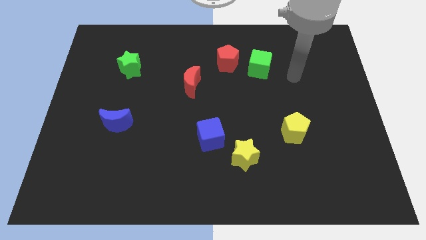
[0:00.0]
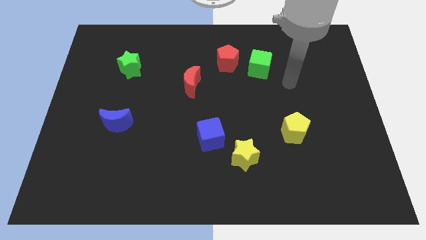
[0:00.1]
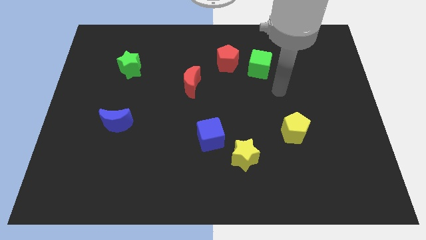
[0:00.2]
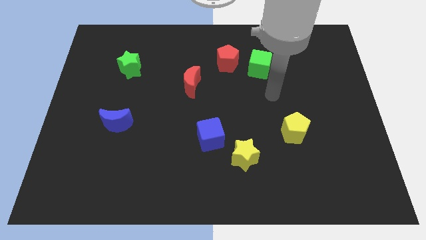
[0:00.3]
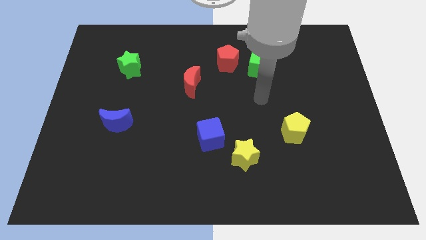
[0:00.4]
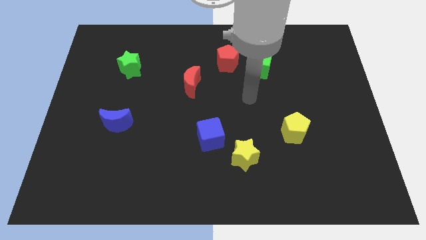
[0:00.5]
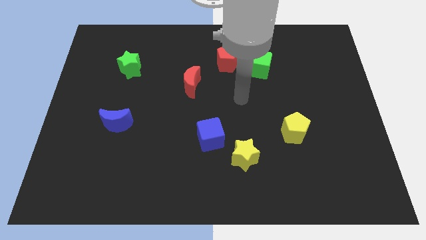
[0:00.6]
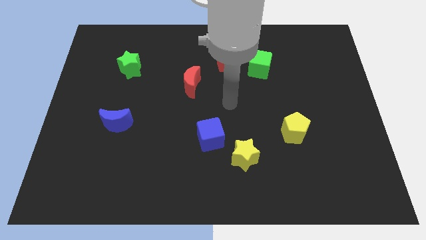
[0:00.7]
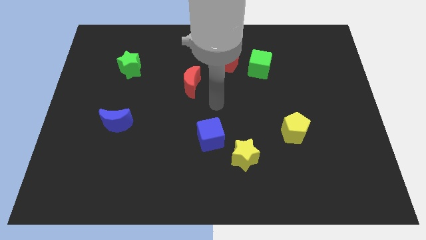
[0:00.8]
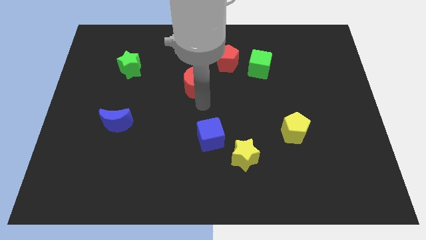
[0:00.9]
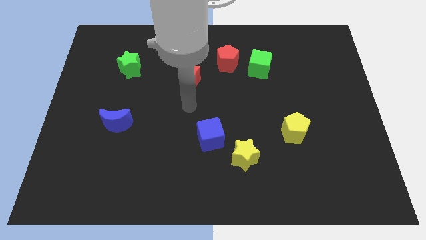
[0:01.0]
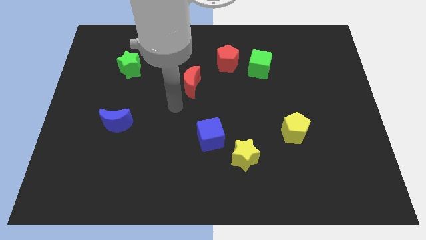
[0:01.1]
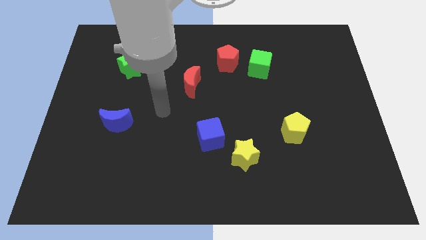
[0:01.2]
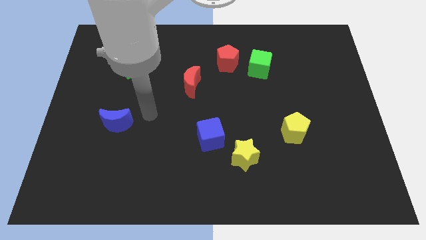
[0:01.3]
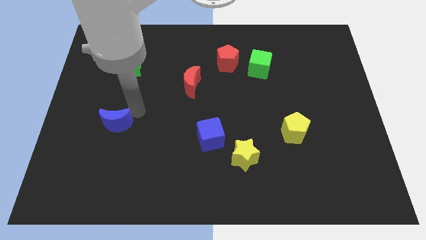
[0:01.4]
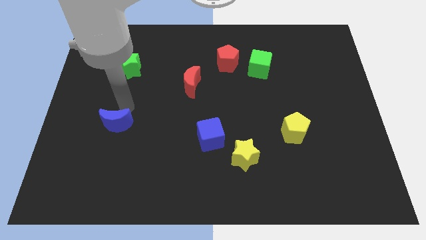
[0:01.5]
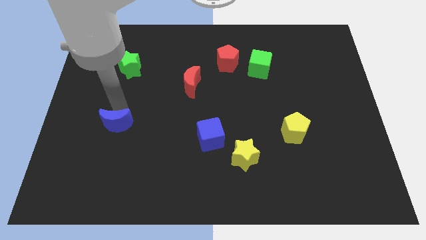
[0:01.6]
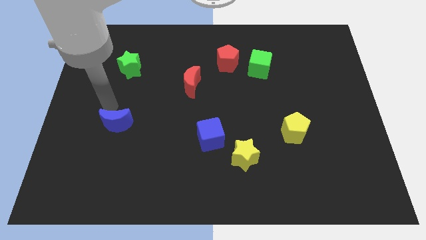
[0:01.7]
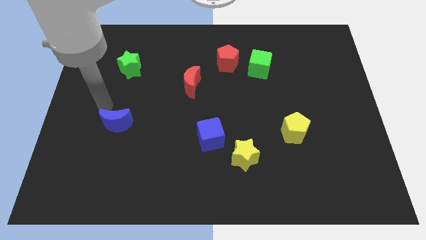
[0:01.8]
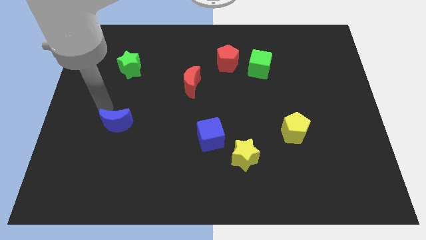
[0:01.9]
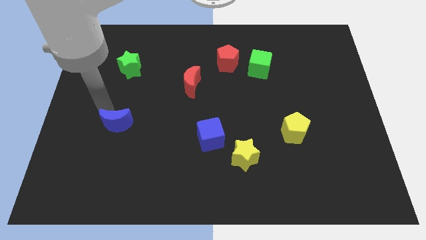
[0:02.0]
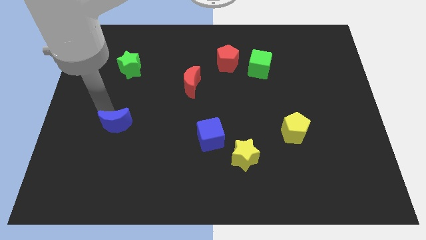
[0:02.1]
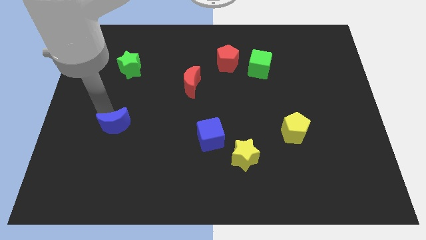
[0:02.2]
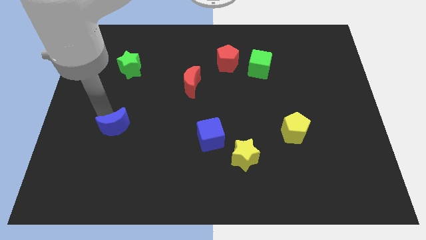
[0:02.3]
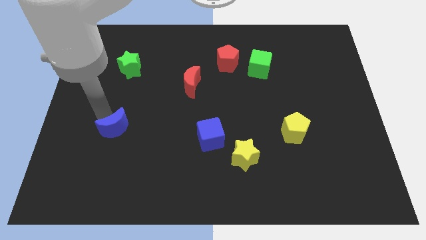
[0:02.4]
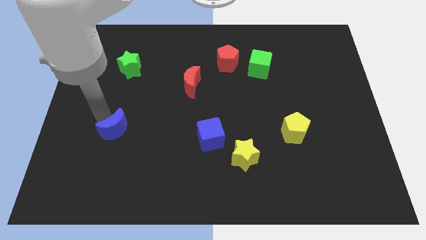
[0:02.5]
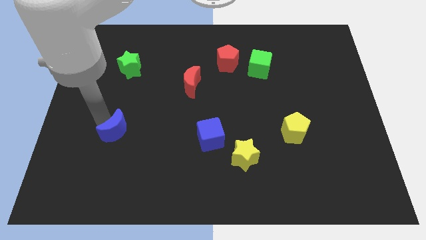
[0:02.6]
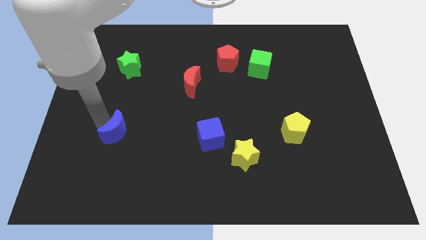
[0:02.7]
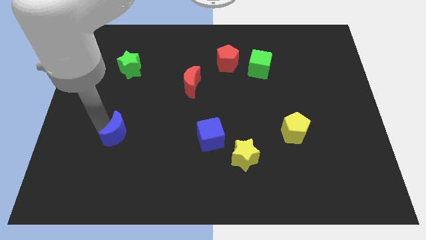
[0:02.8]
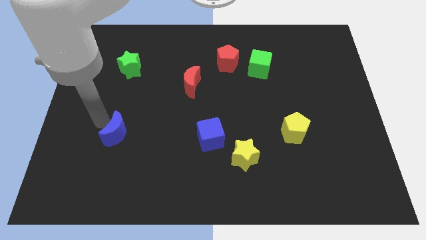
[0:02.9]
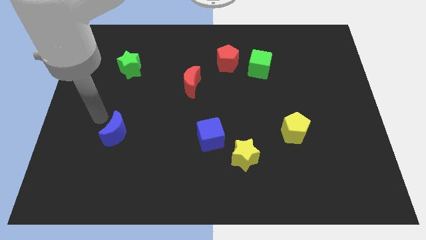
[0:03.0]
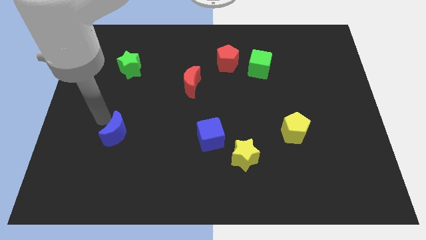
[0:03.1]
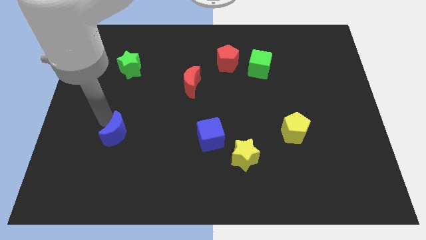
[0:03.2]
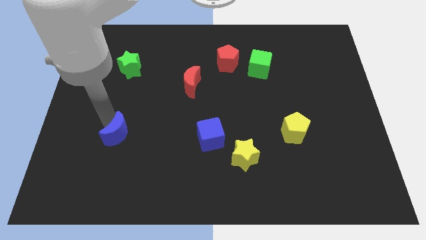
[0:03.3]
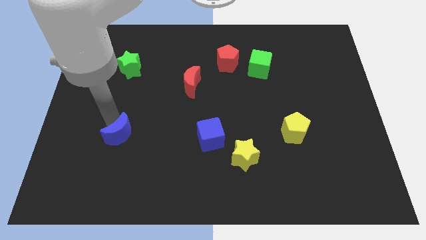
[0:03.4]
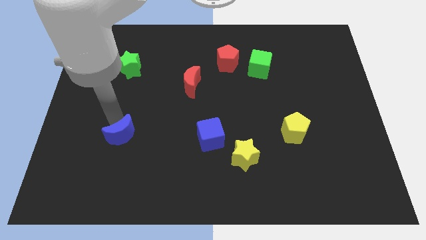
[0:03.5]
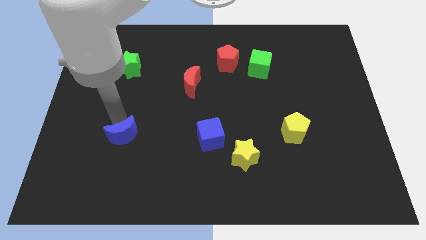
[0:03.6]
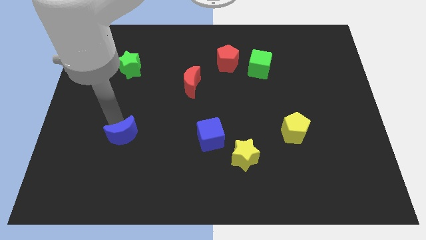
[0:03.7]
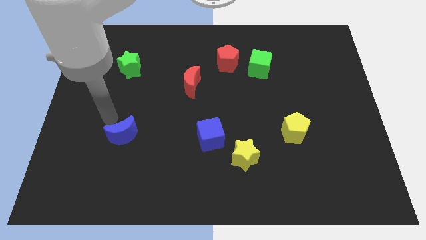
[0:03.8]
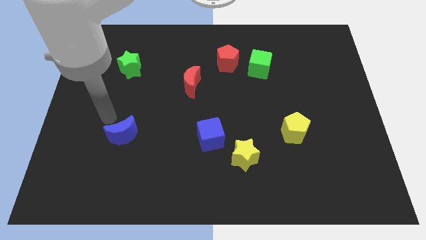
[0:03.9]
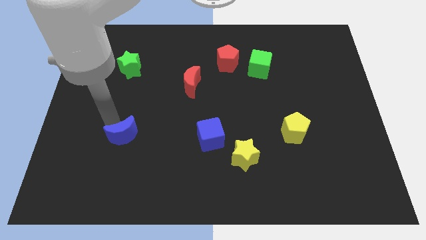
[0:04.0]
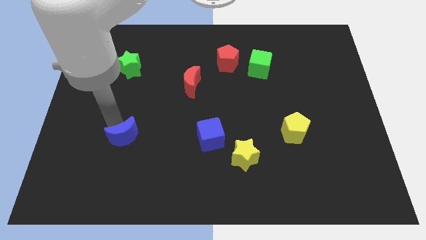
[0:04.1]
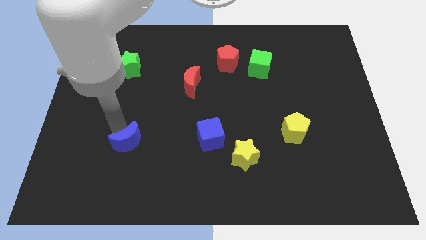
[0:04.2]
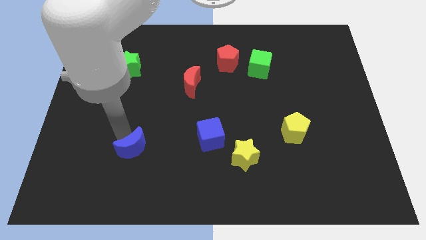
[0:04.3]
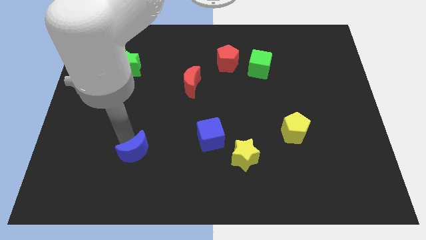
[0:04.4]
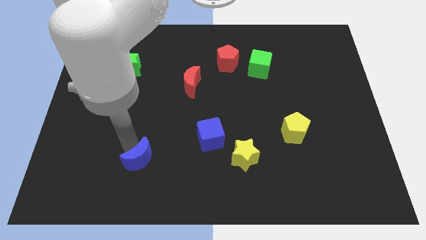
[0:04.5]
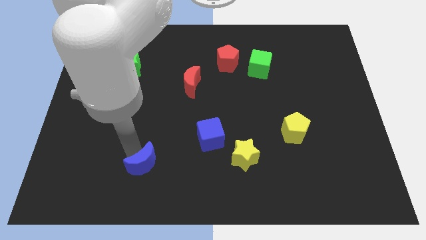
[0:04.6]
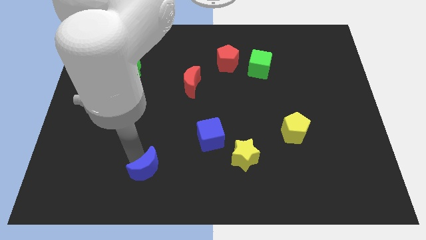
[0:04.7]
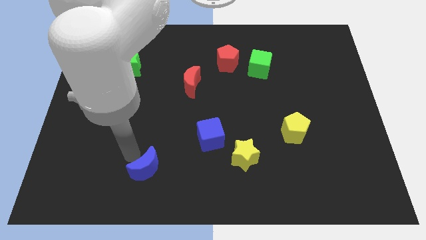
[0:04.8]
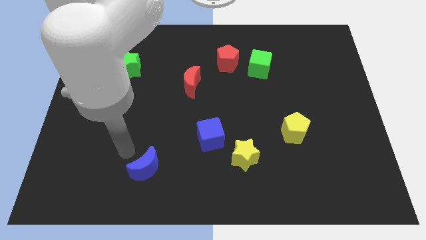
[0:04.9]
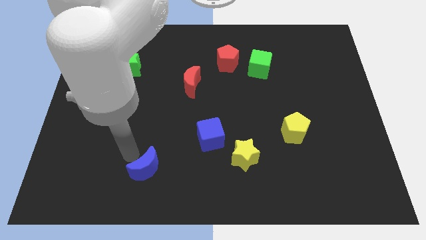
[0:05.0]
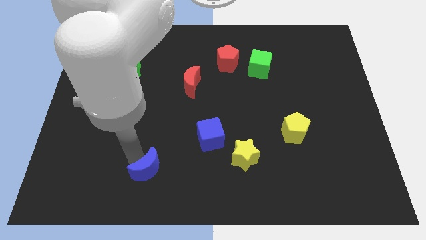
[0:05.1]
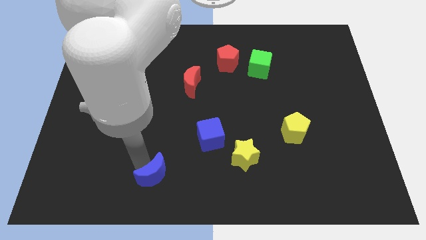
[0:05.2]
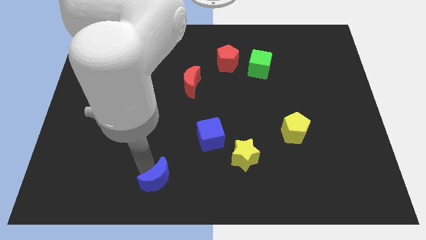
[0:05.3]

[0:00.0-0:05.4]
move the blue moon to the bottom side

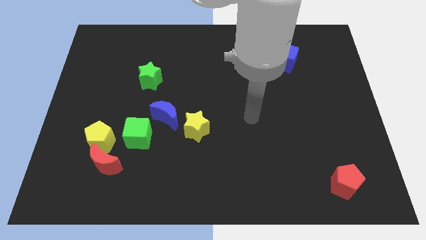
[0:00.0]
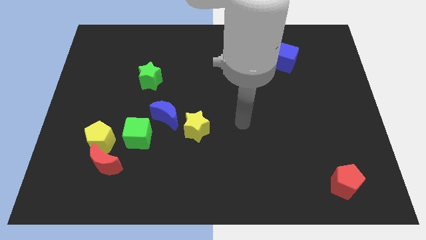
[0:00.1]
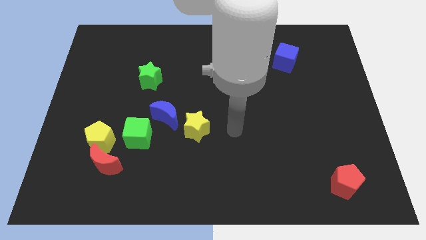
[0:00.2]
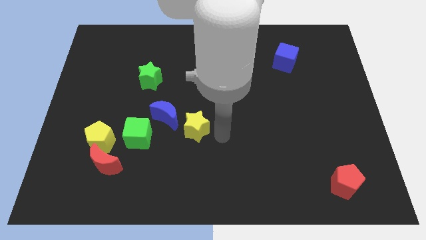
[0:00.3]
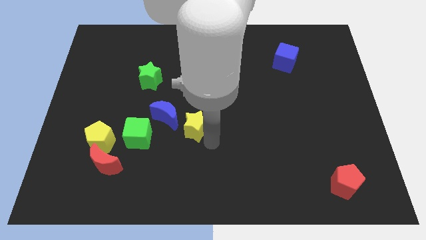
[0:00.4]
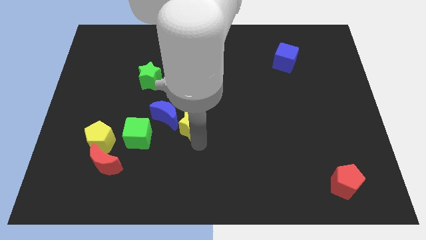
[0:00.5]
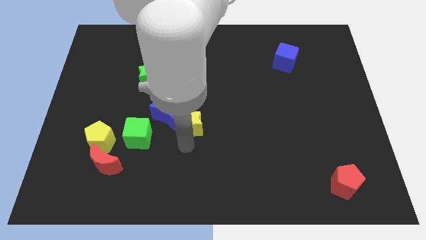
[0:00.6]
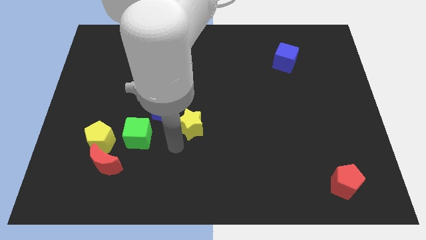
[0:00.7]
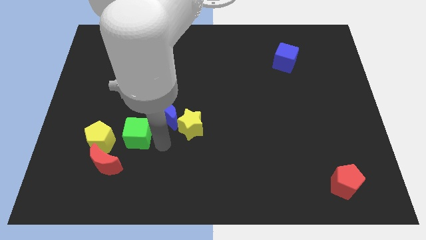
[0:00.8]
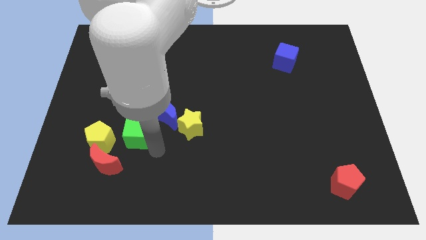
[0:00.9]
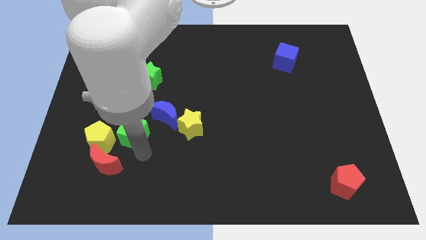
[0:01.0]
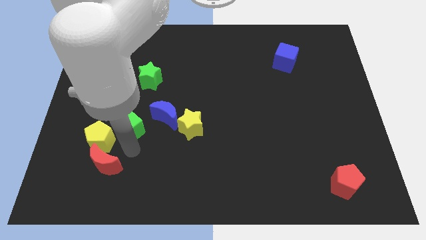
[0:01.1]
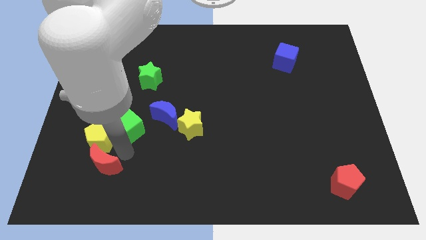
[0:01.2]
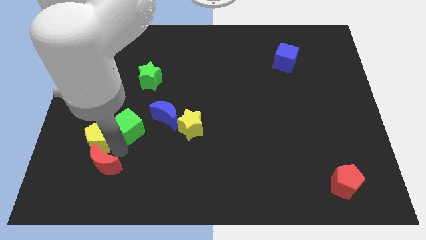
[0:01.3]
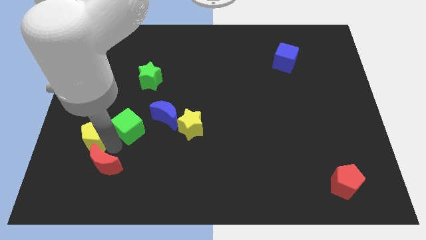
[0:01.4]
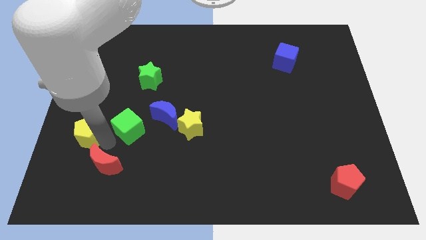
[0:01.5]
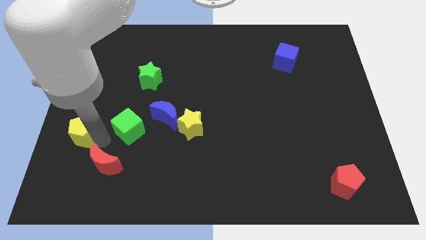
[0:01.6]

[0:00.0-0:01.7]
slide the yellow pentagon to the center left

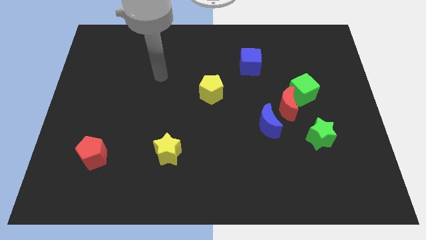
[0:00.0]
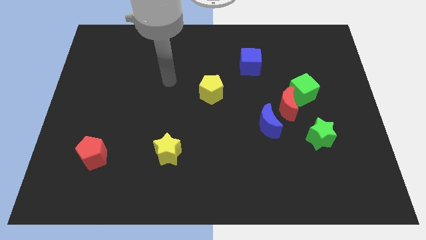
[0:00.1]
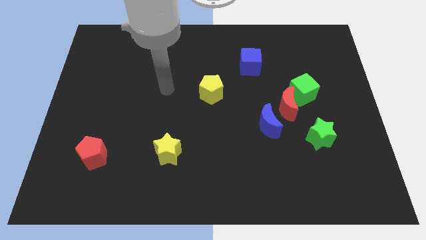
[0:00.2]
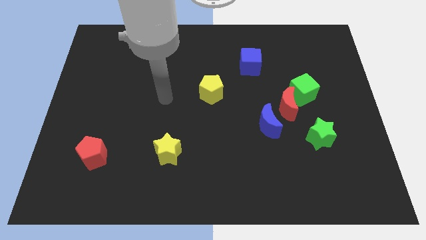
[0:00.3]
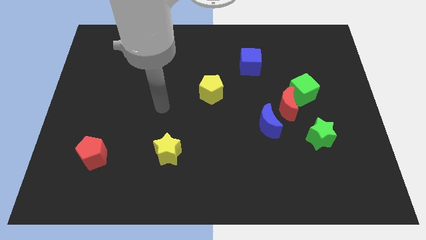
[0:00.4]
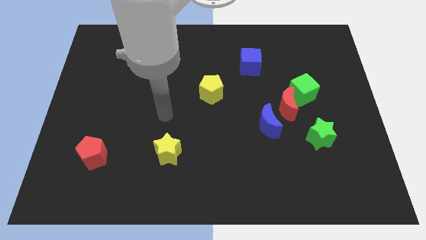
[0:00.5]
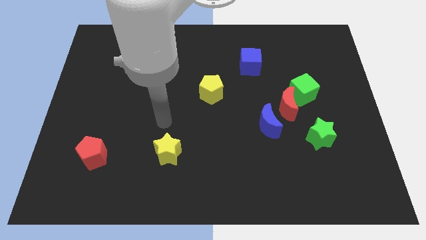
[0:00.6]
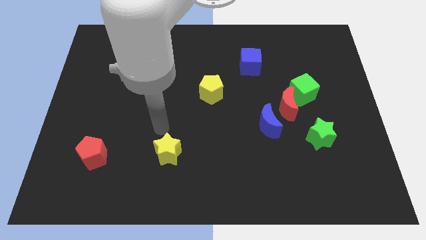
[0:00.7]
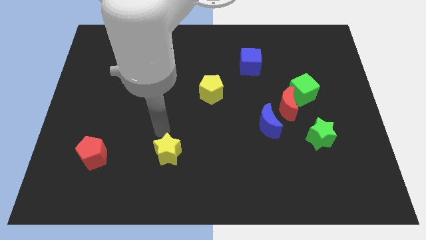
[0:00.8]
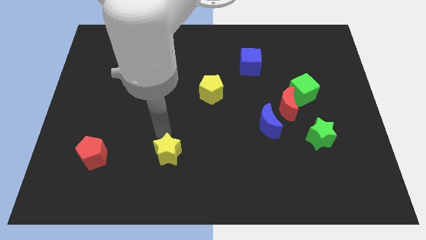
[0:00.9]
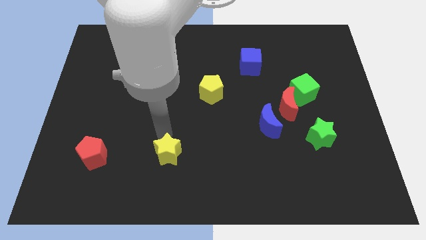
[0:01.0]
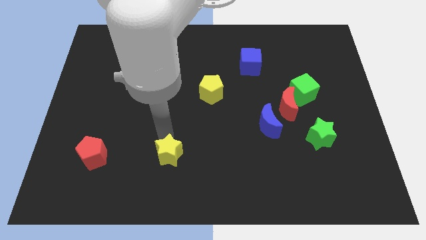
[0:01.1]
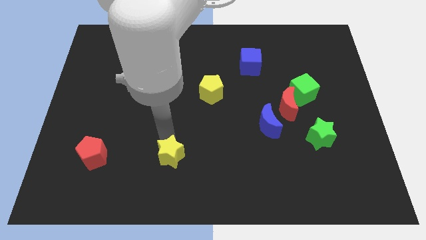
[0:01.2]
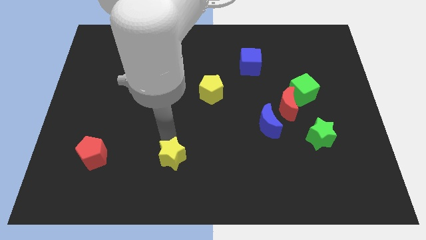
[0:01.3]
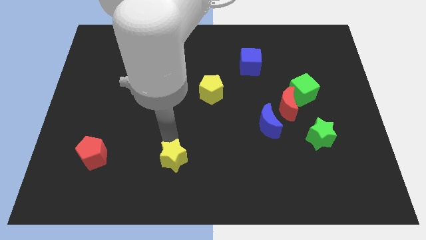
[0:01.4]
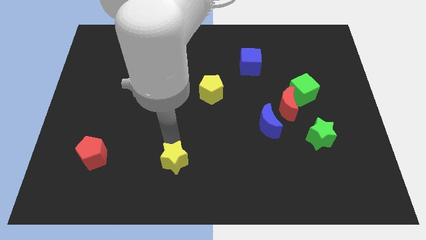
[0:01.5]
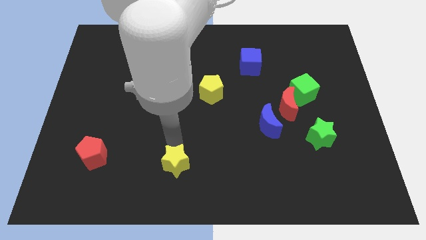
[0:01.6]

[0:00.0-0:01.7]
slide the yellow star to the bottom
